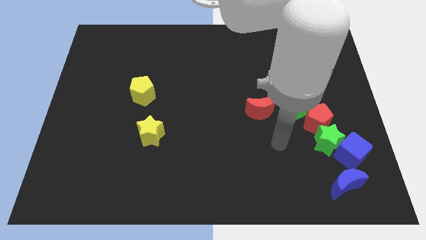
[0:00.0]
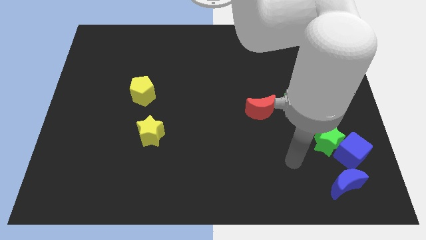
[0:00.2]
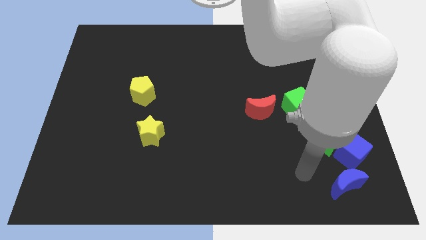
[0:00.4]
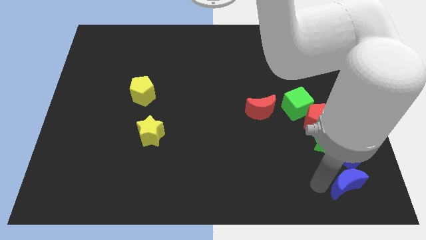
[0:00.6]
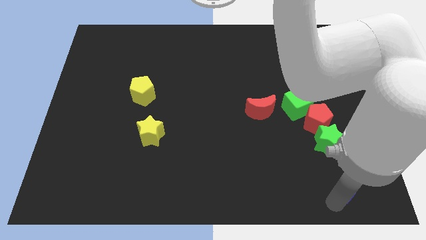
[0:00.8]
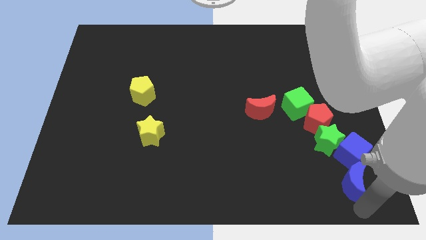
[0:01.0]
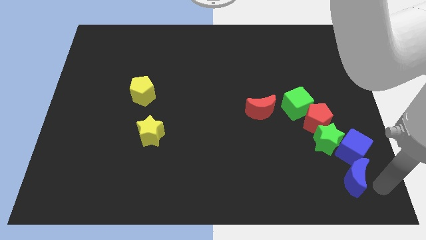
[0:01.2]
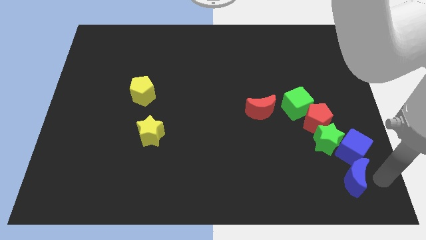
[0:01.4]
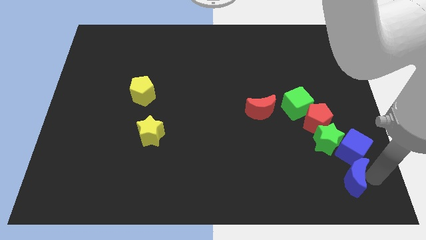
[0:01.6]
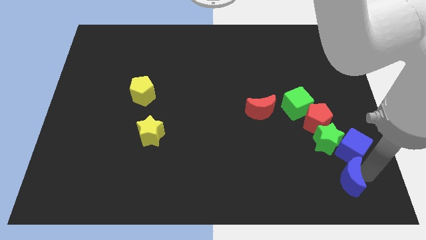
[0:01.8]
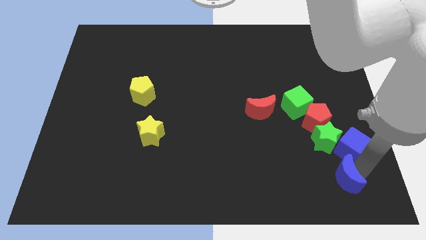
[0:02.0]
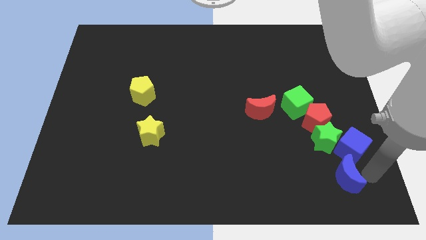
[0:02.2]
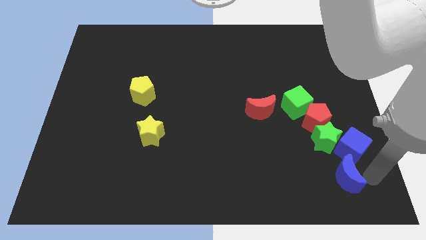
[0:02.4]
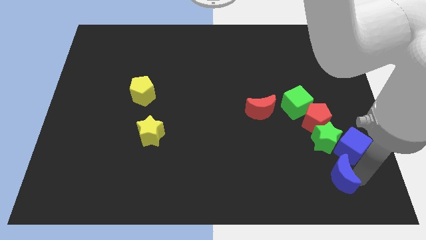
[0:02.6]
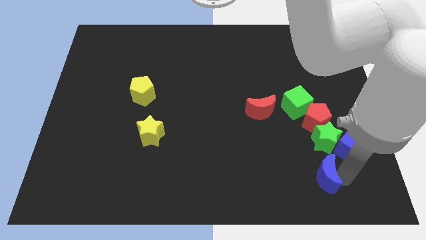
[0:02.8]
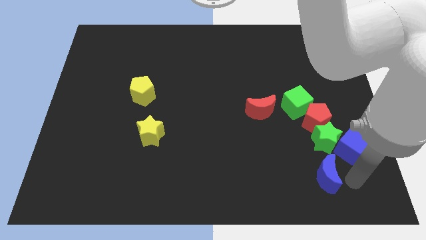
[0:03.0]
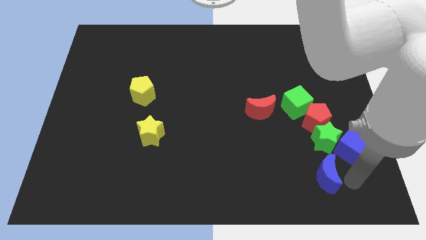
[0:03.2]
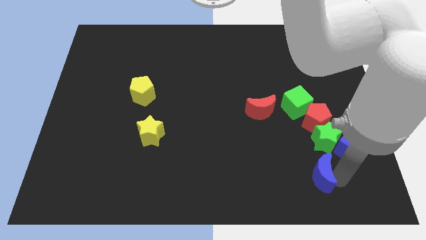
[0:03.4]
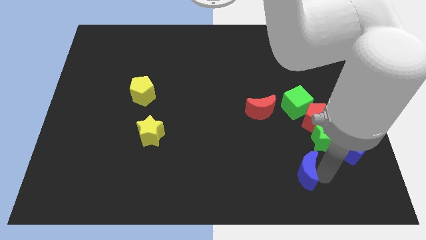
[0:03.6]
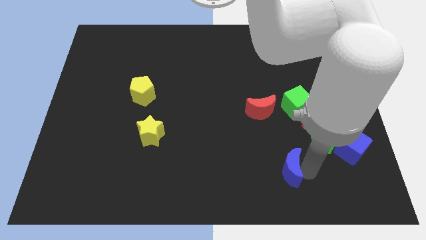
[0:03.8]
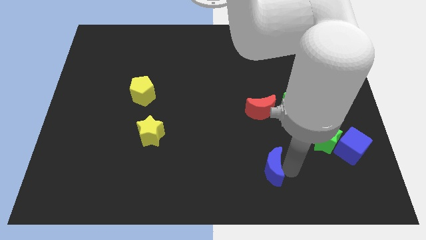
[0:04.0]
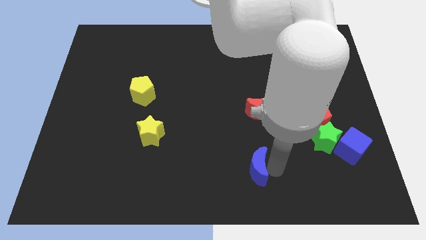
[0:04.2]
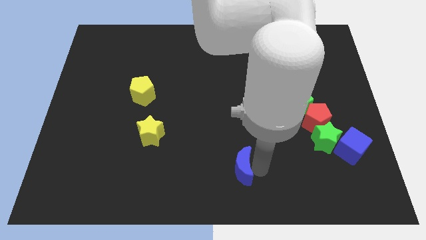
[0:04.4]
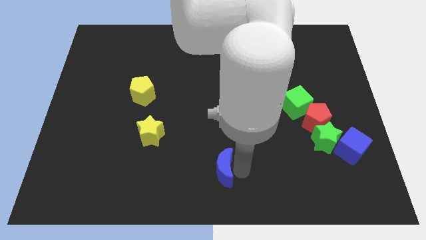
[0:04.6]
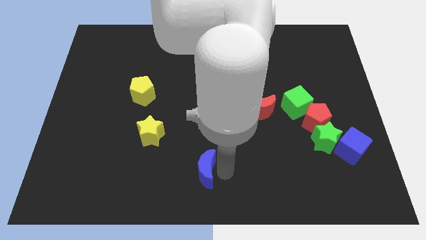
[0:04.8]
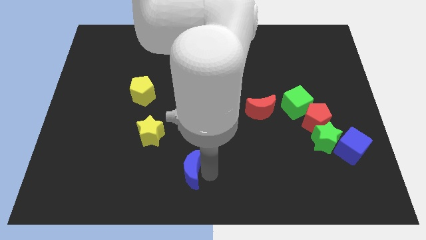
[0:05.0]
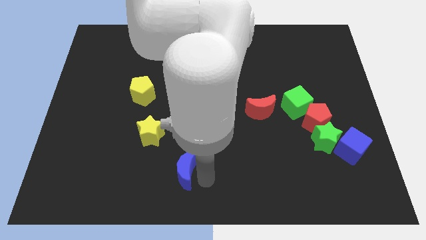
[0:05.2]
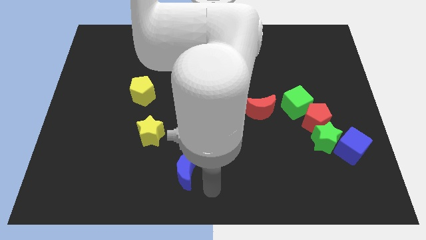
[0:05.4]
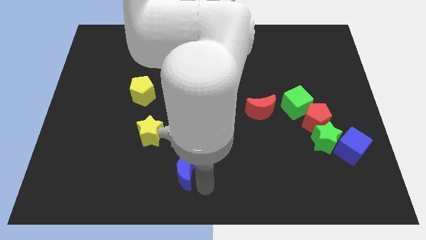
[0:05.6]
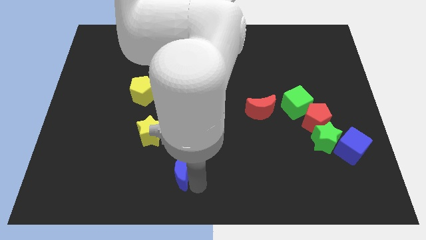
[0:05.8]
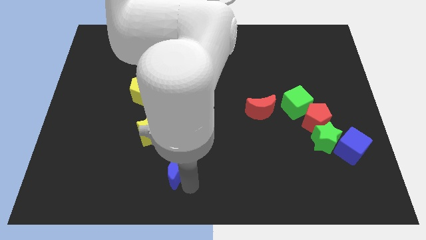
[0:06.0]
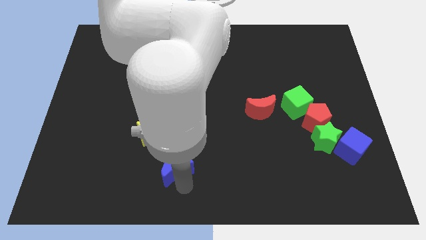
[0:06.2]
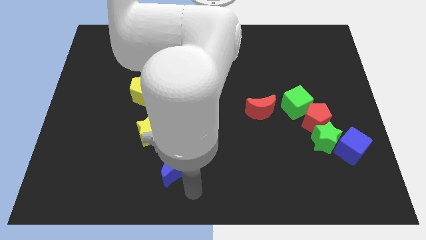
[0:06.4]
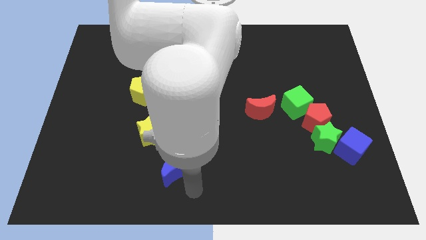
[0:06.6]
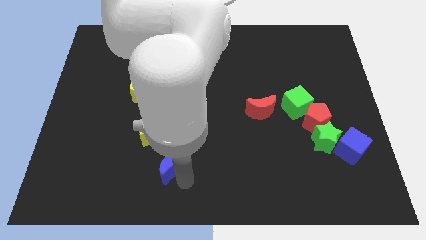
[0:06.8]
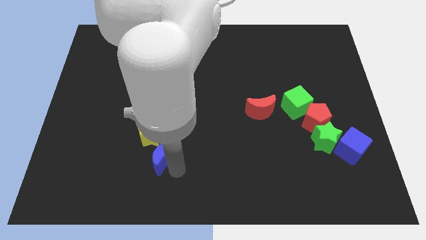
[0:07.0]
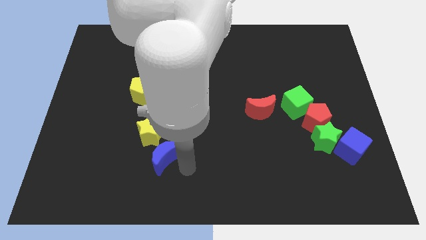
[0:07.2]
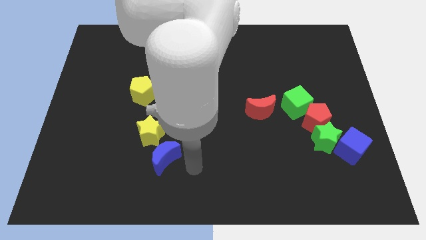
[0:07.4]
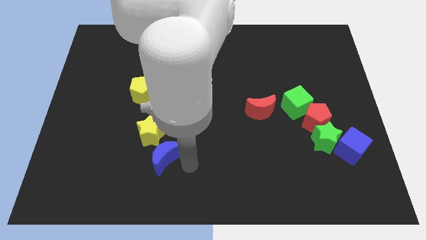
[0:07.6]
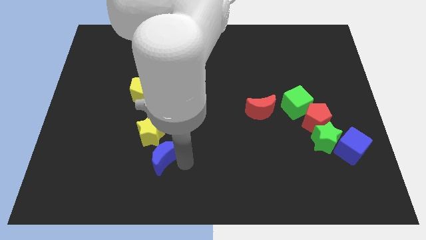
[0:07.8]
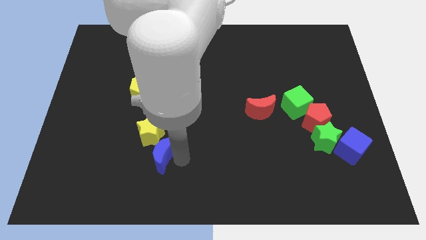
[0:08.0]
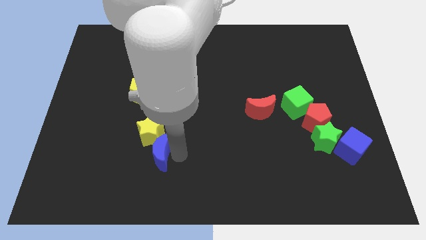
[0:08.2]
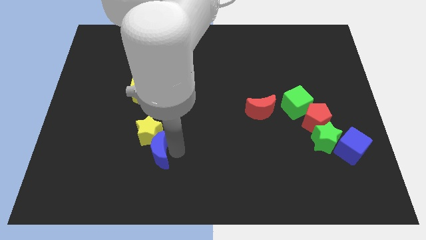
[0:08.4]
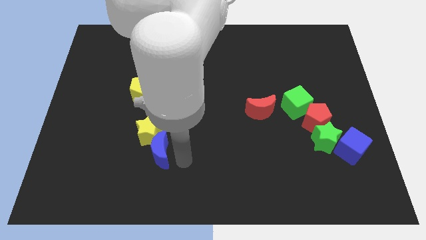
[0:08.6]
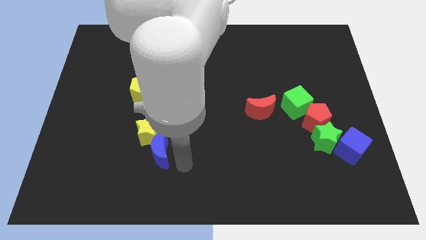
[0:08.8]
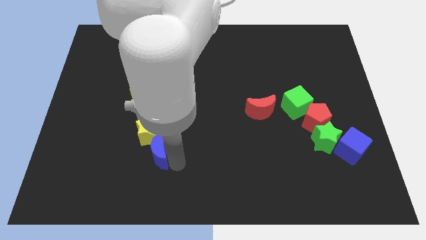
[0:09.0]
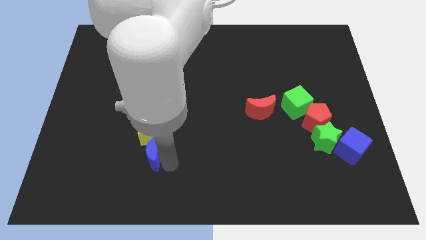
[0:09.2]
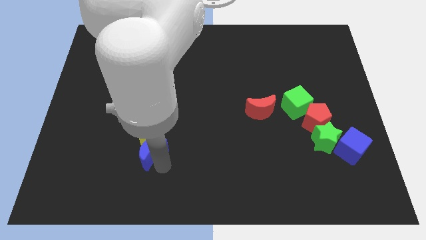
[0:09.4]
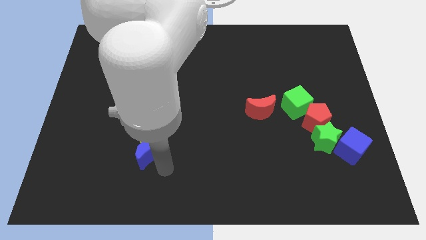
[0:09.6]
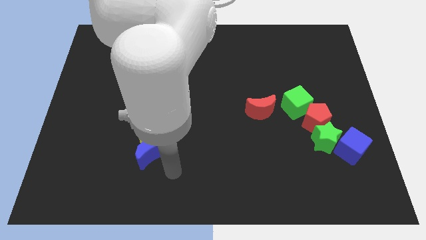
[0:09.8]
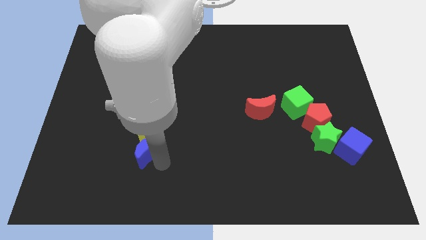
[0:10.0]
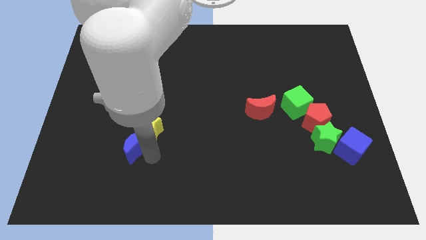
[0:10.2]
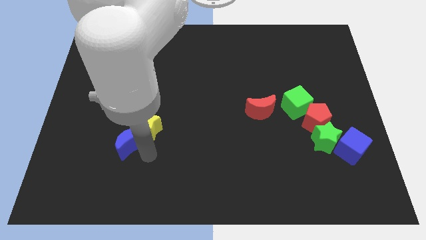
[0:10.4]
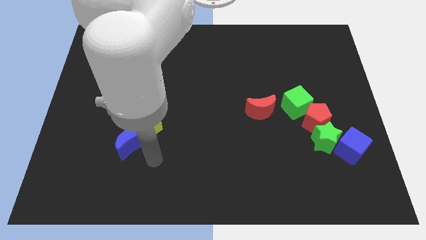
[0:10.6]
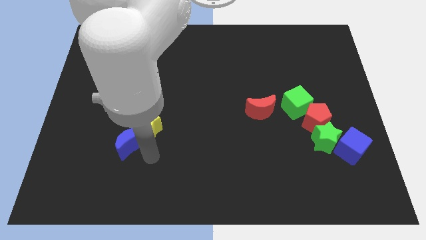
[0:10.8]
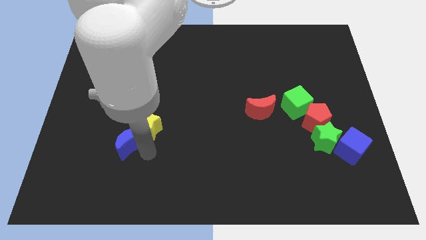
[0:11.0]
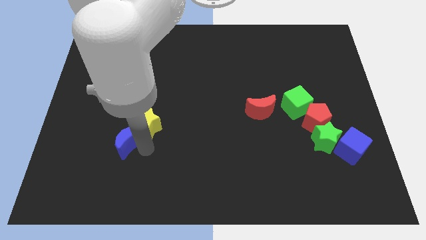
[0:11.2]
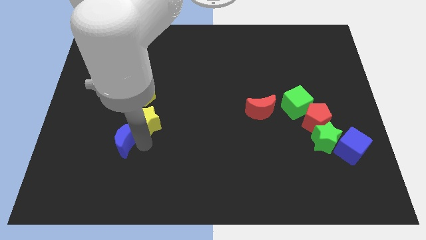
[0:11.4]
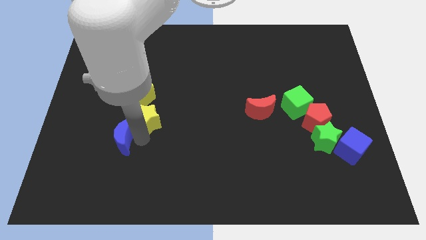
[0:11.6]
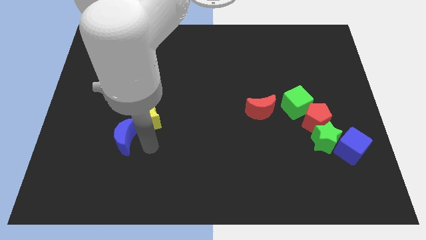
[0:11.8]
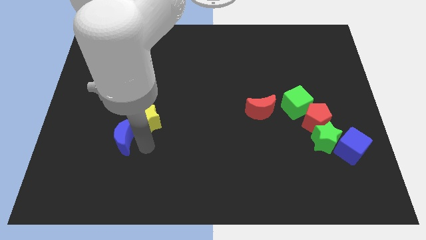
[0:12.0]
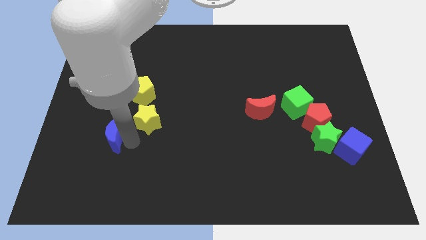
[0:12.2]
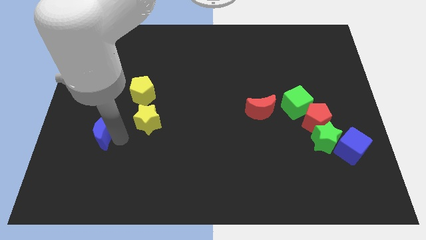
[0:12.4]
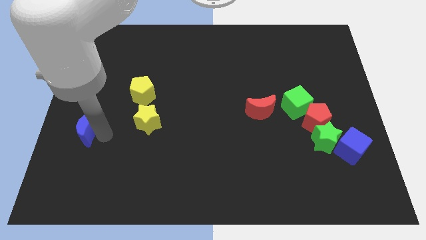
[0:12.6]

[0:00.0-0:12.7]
push the blue moon to the left side of the board
